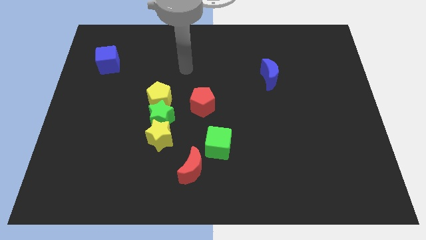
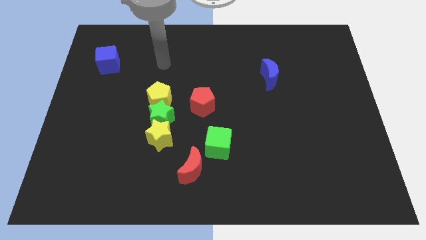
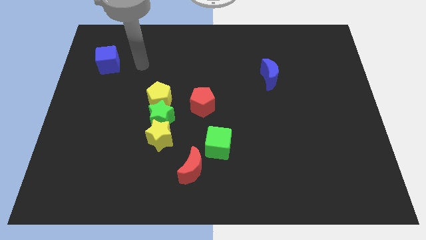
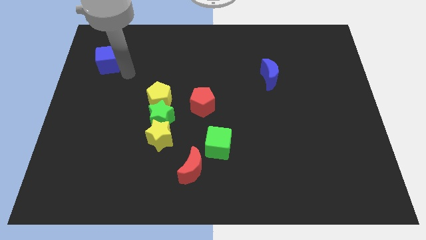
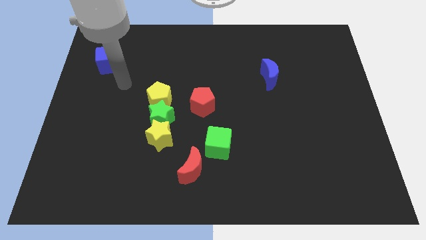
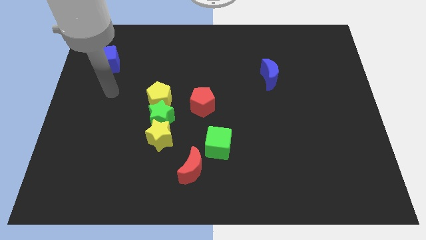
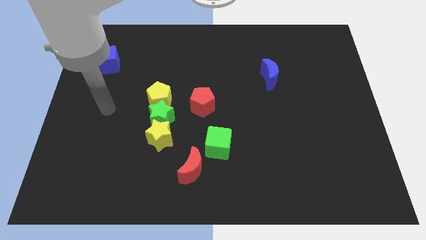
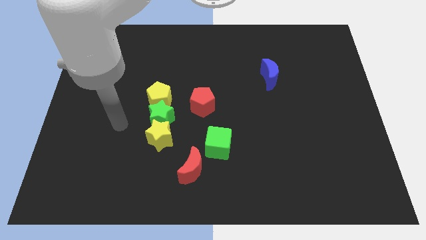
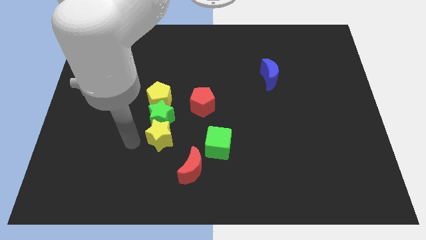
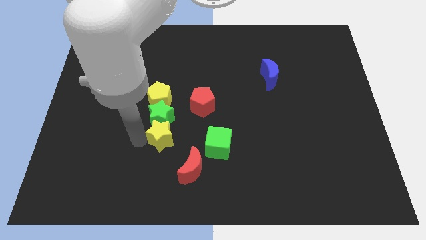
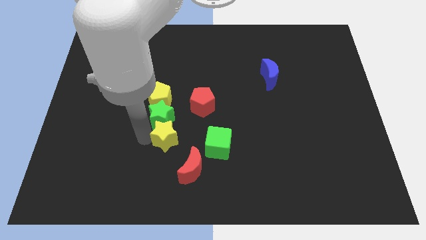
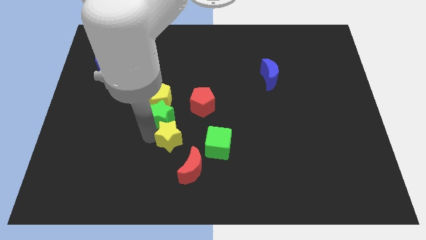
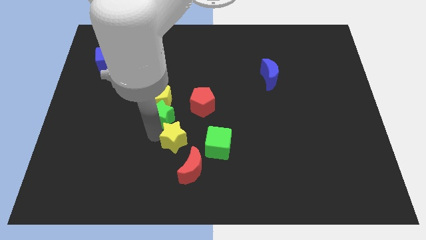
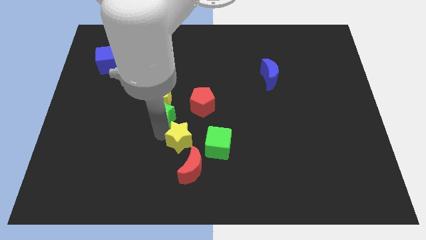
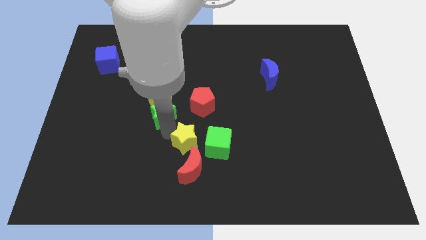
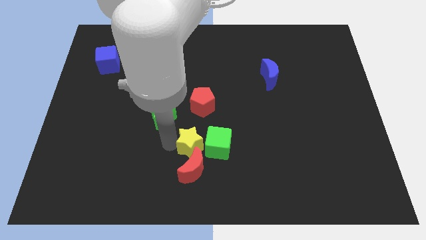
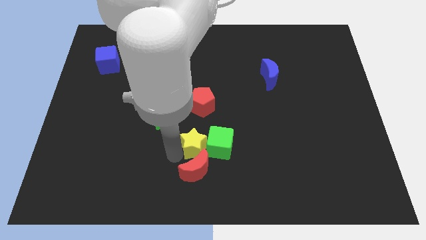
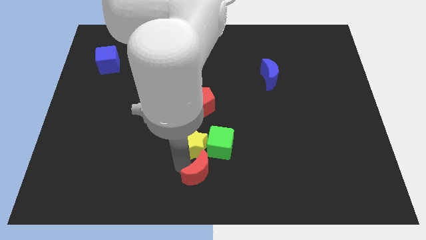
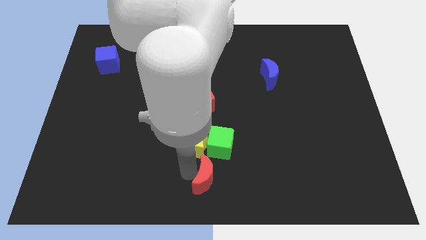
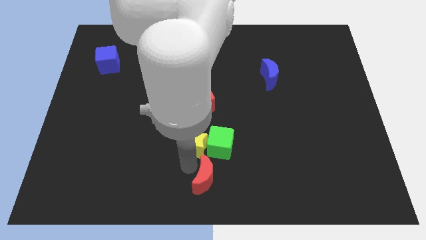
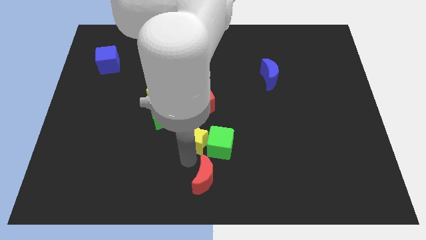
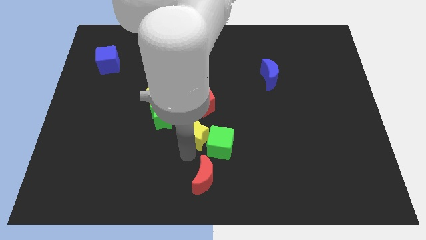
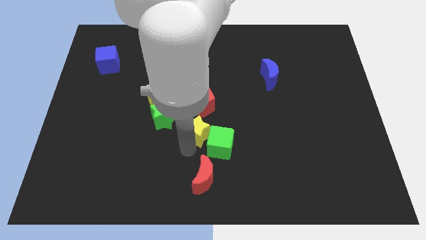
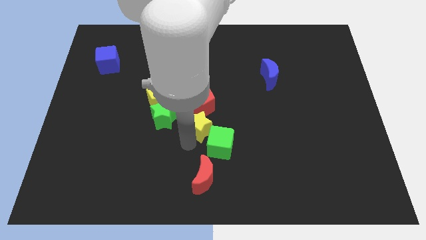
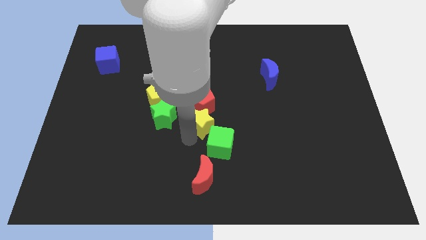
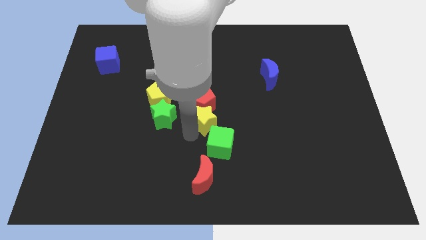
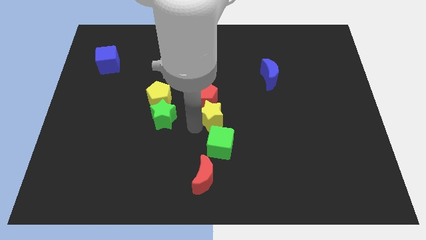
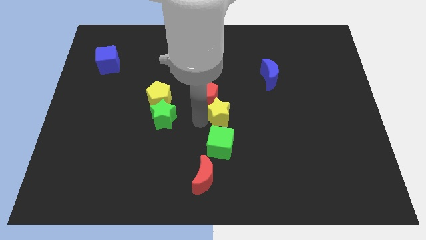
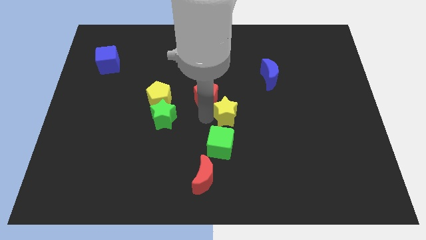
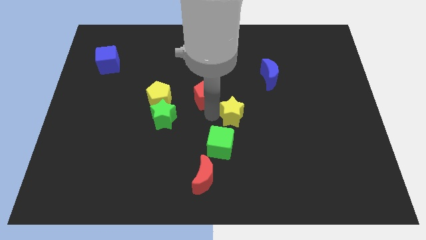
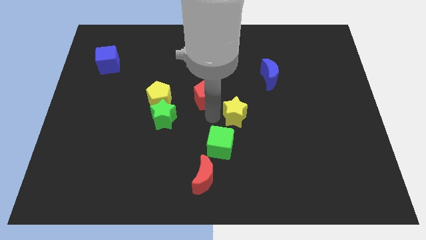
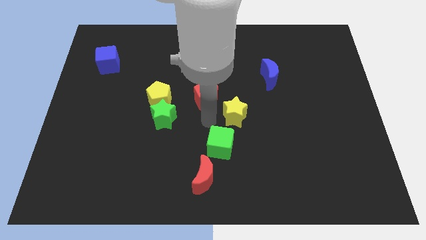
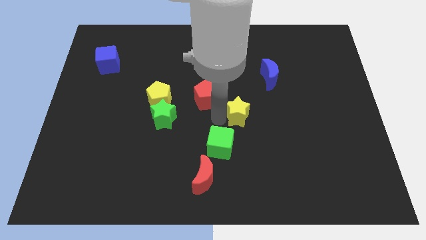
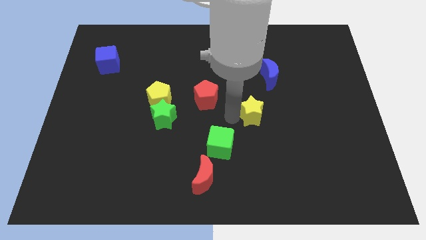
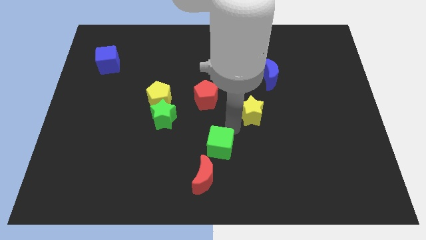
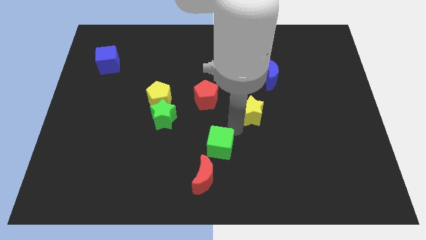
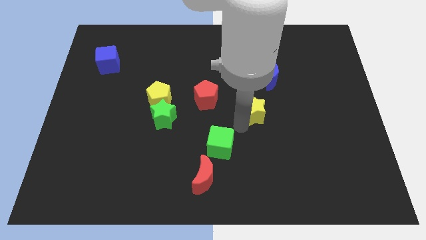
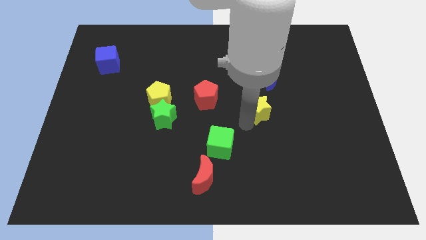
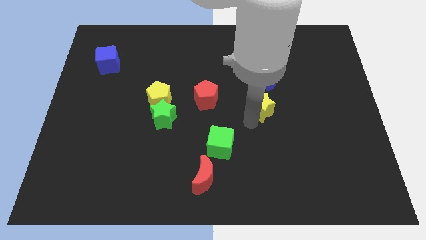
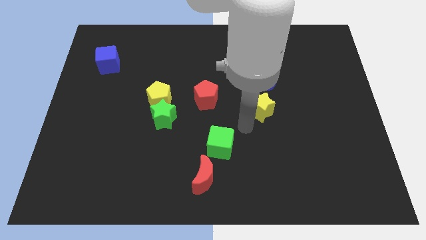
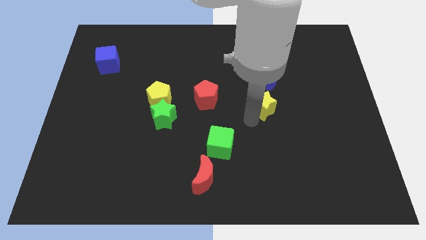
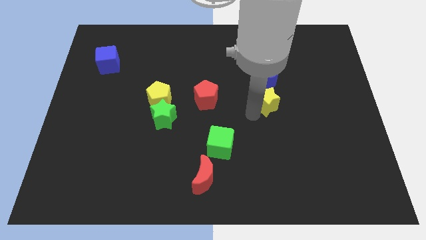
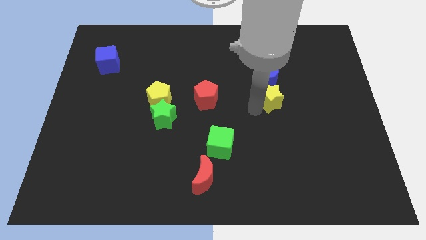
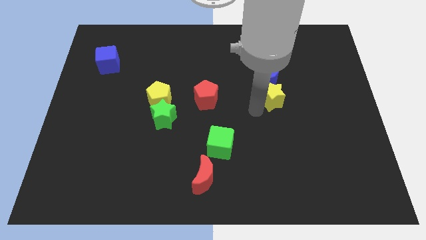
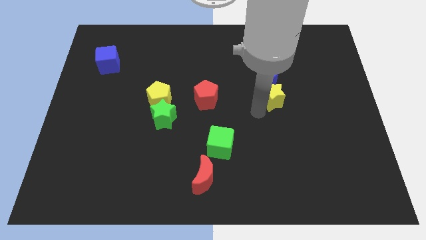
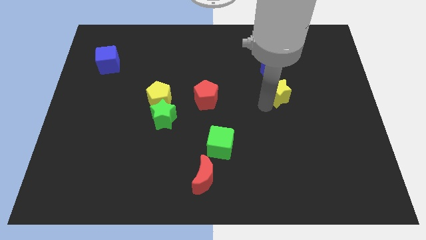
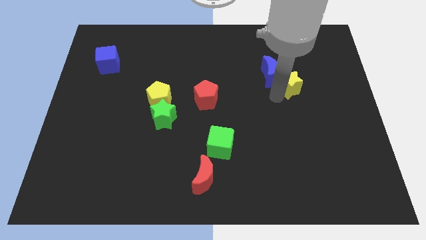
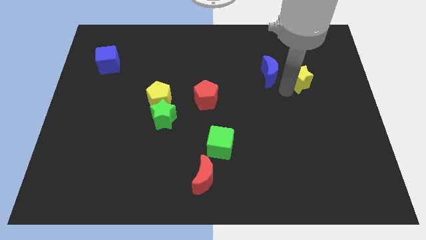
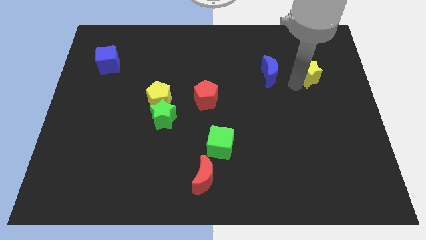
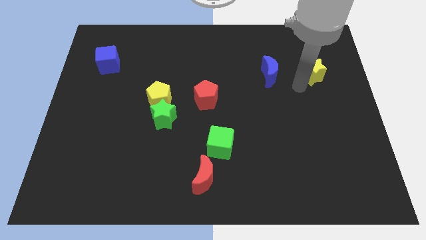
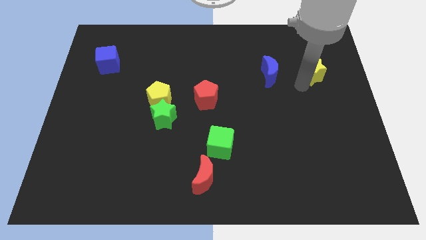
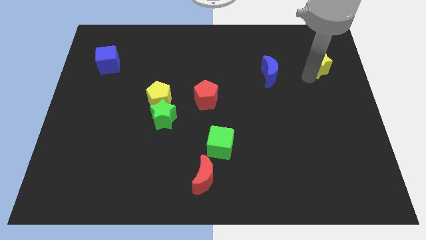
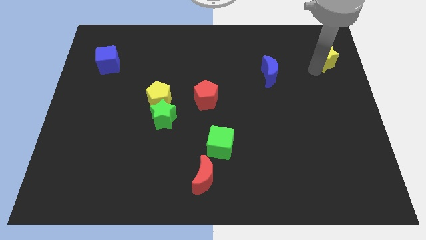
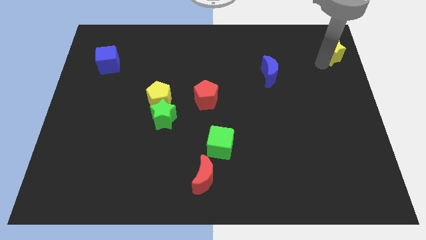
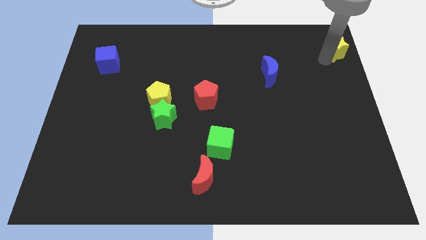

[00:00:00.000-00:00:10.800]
move the yellow star to the top right of the board
